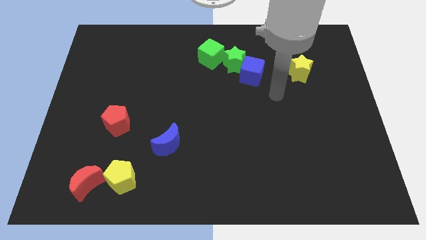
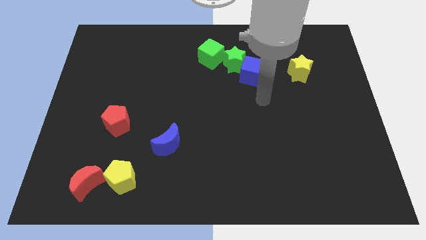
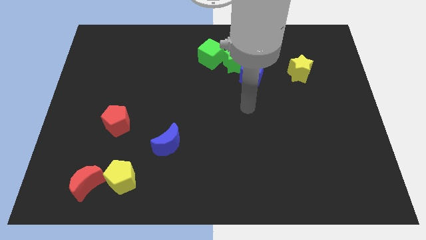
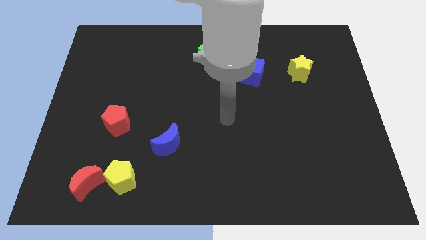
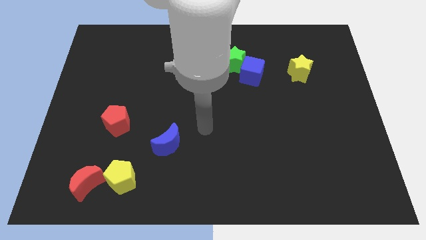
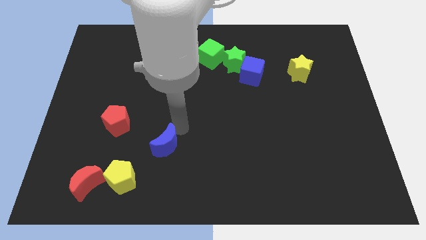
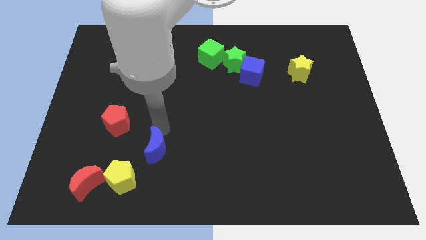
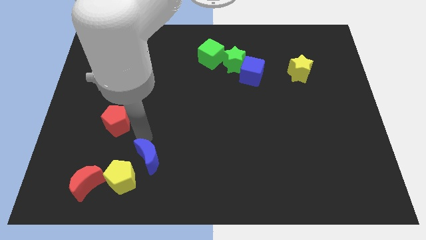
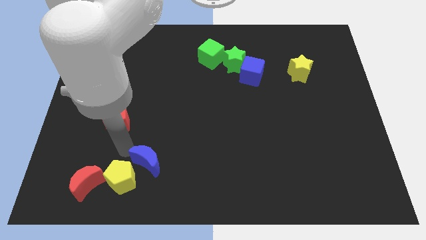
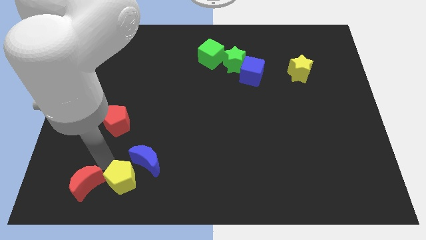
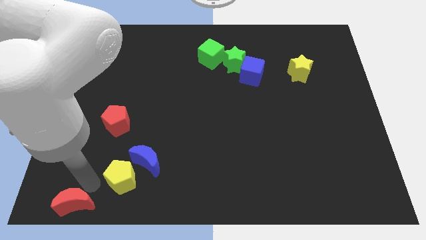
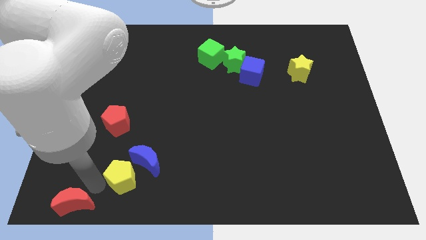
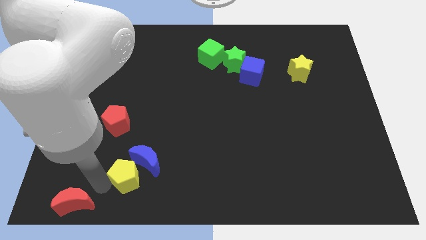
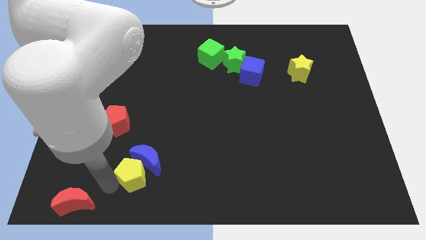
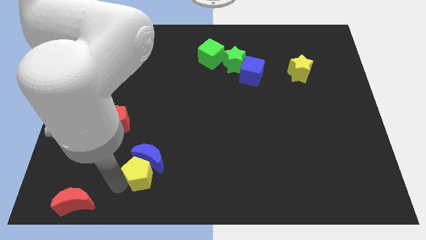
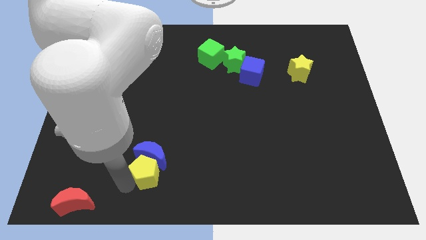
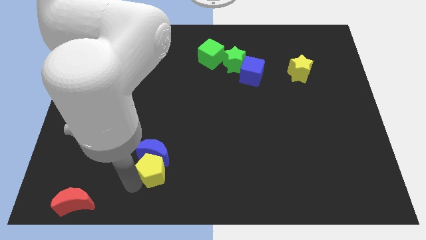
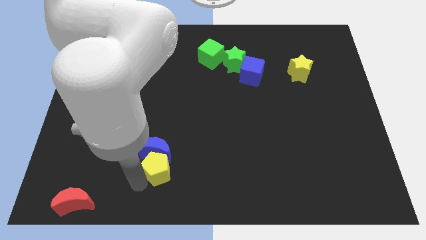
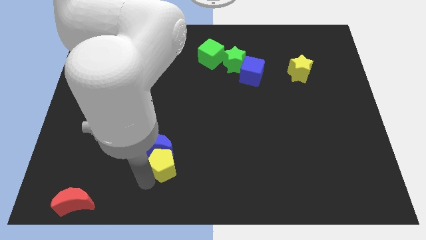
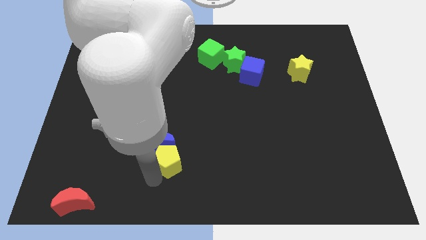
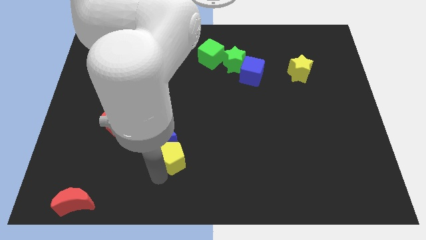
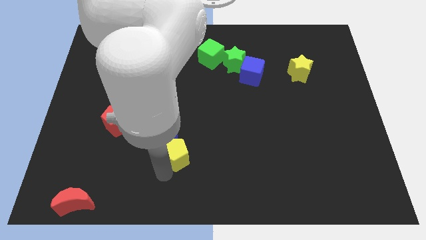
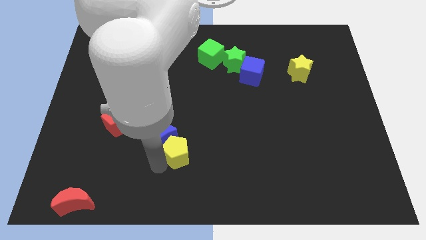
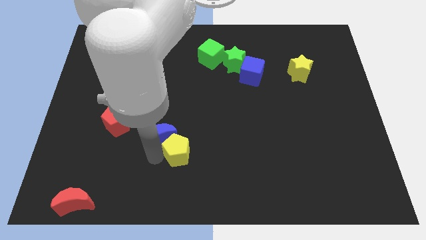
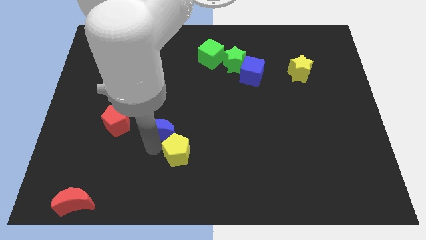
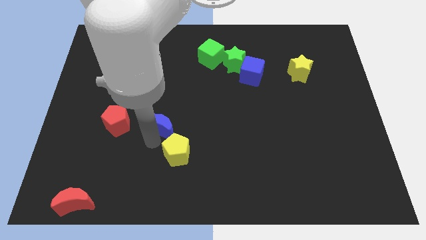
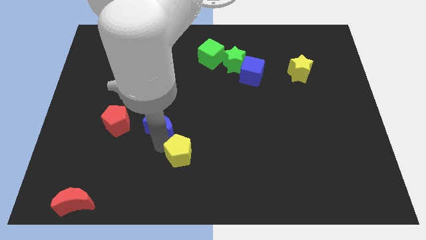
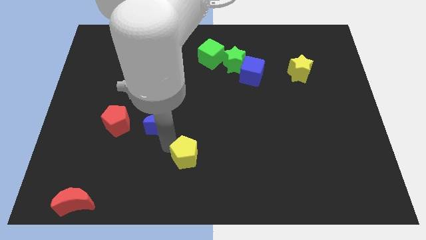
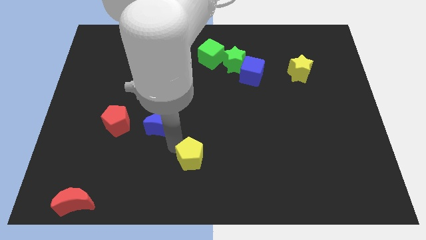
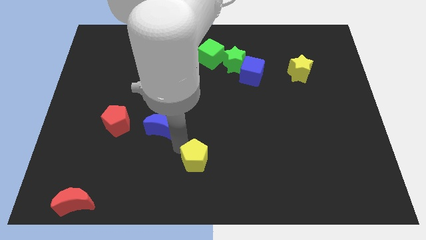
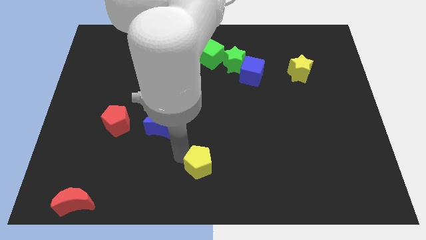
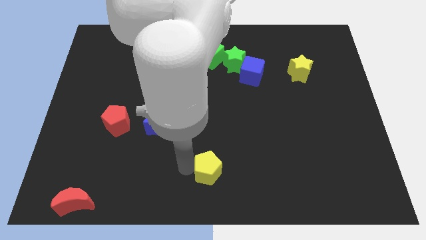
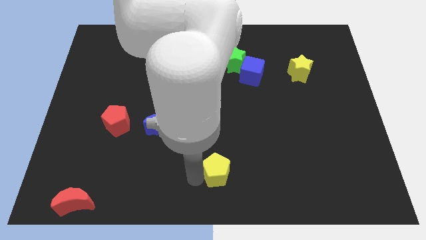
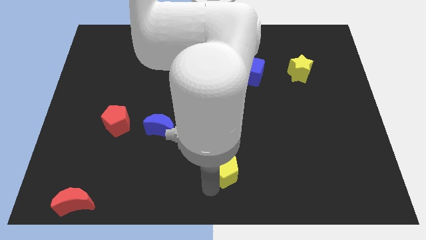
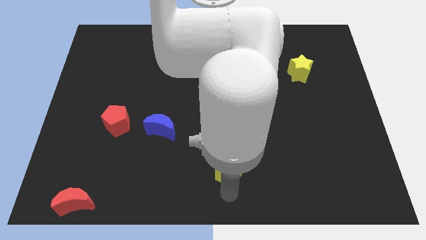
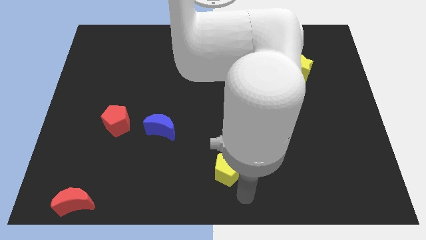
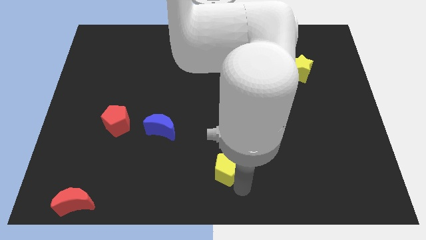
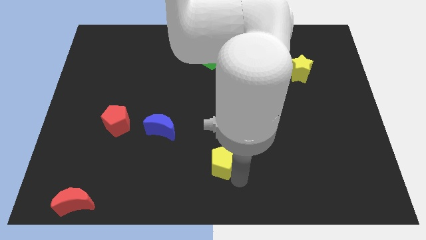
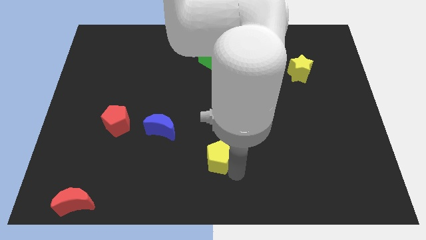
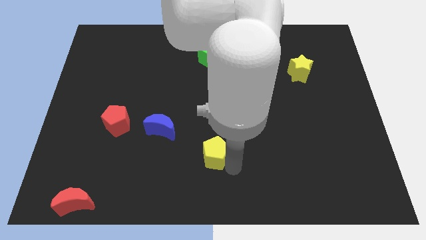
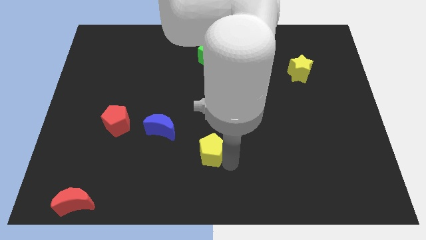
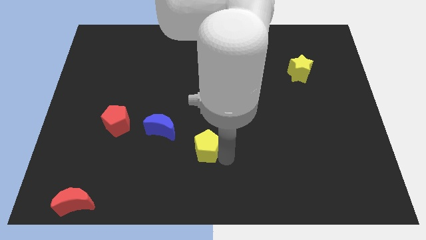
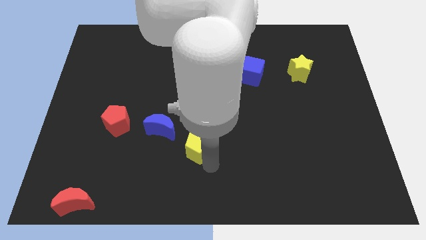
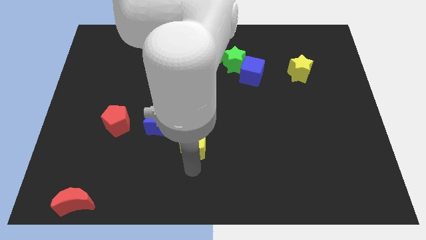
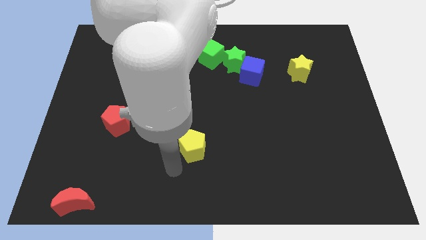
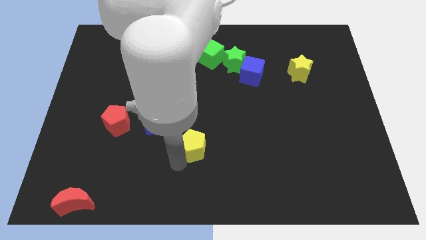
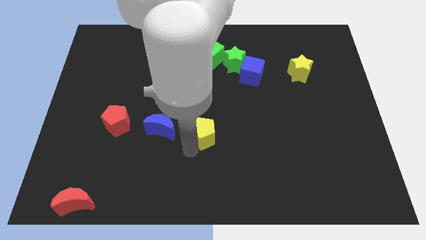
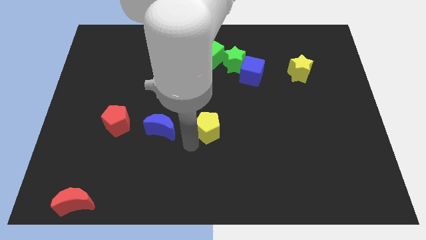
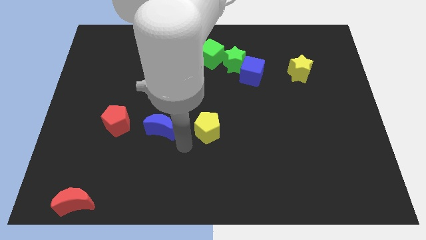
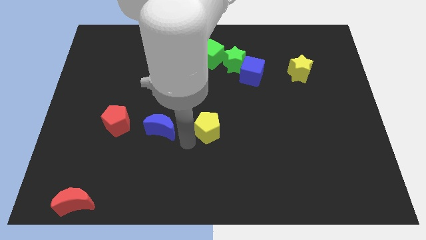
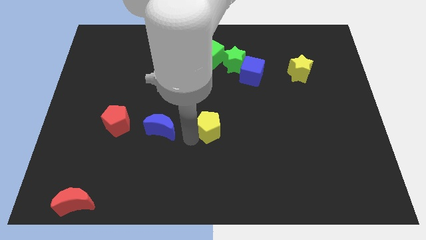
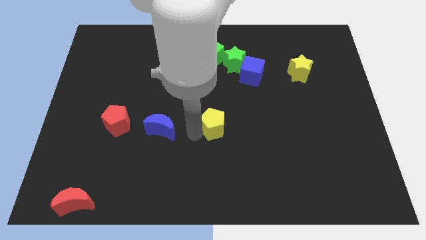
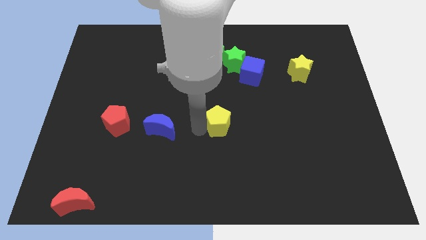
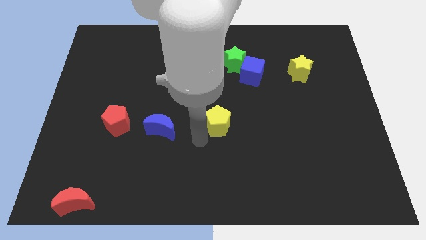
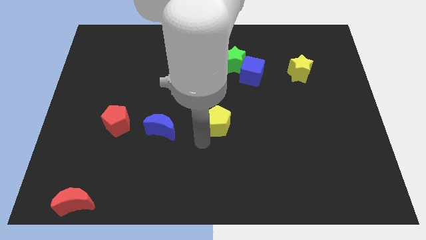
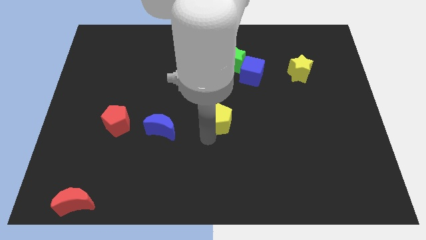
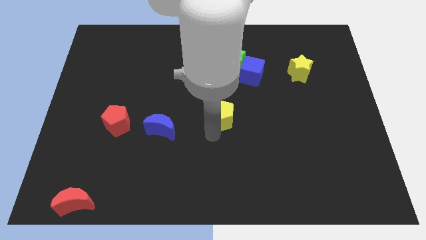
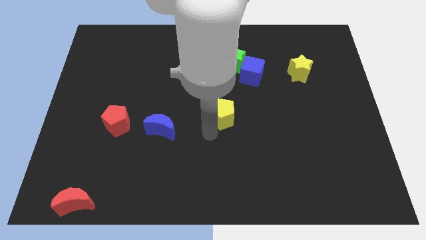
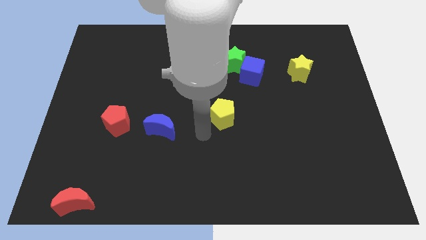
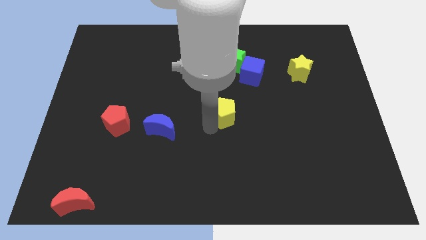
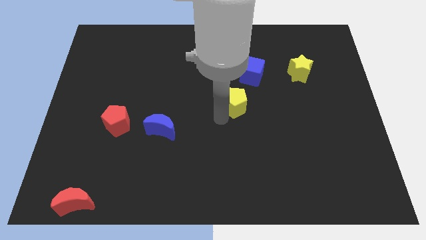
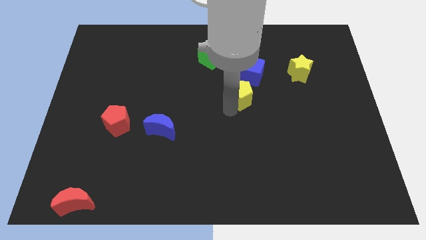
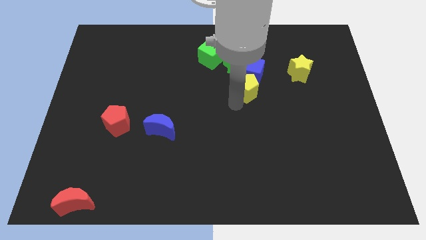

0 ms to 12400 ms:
move the yellow pentagon towards the blue cube
